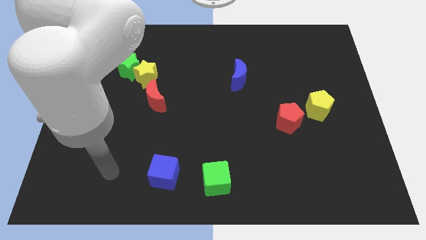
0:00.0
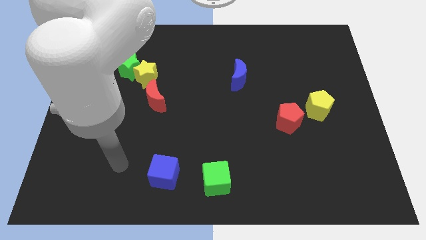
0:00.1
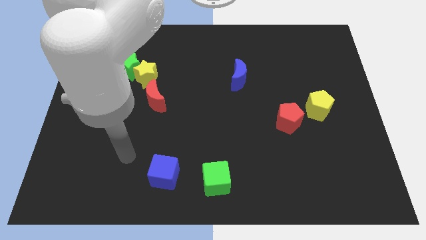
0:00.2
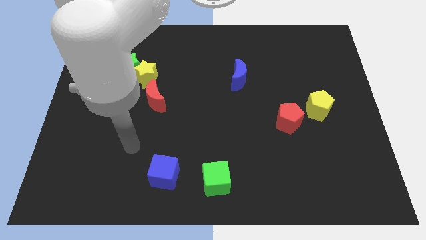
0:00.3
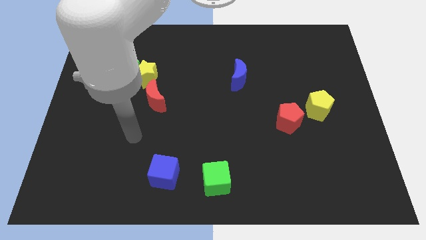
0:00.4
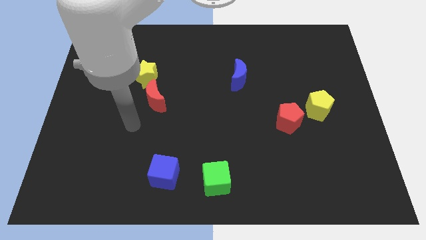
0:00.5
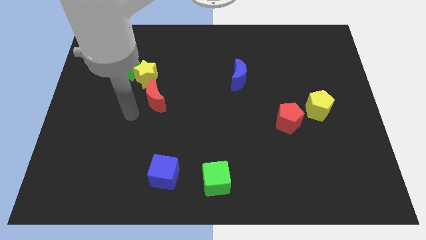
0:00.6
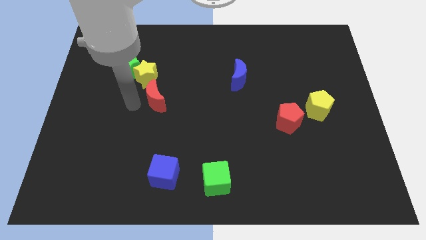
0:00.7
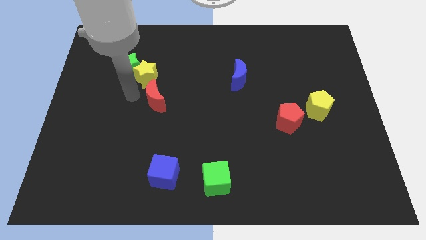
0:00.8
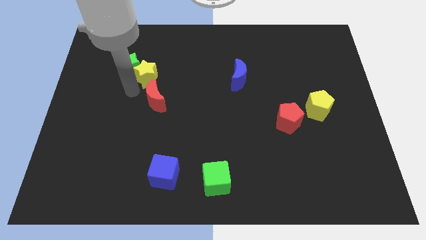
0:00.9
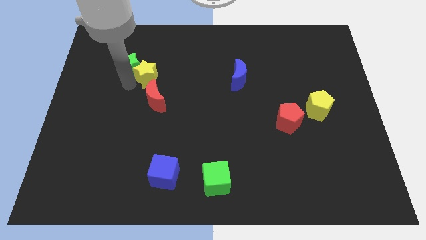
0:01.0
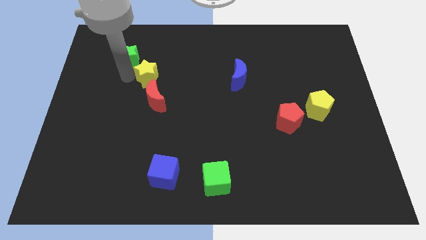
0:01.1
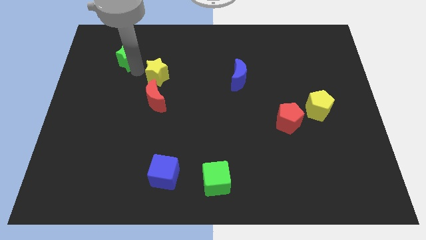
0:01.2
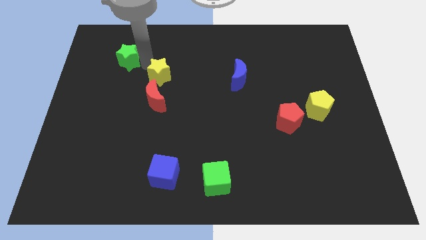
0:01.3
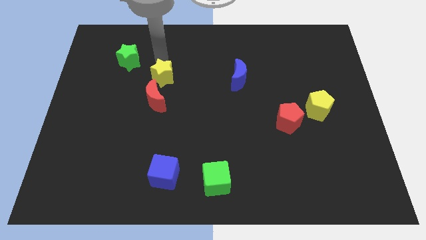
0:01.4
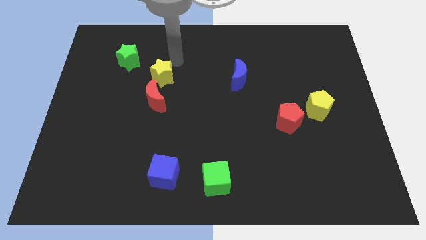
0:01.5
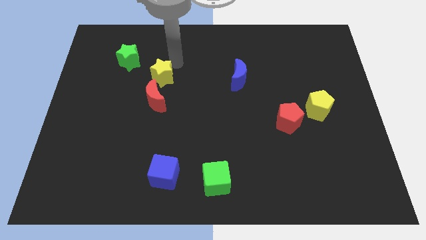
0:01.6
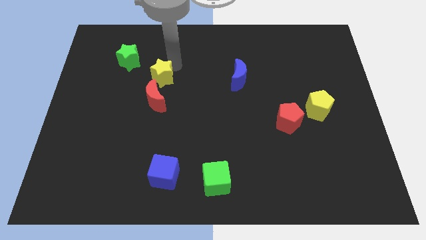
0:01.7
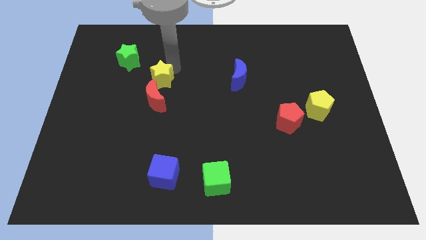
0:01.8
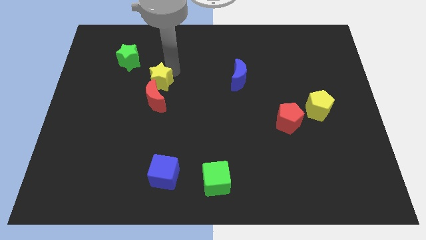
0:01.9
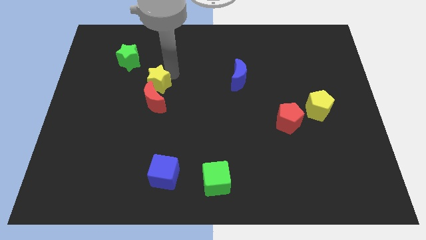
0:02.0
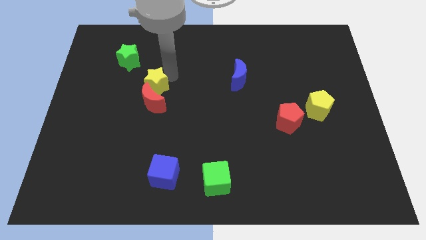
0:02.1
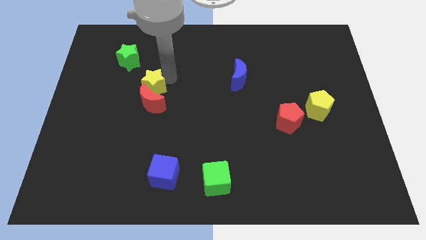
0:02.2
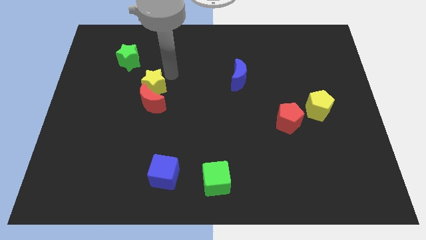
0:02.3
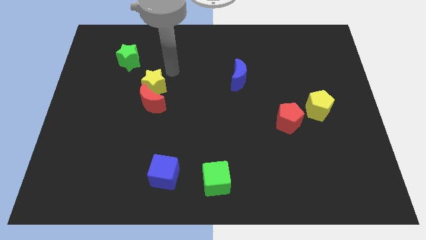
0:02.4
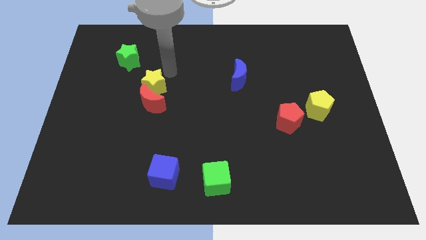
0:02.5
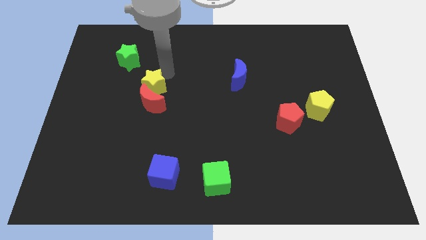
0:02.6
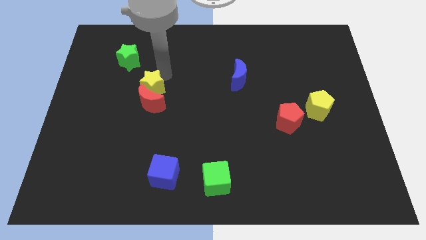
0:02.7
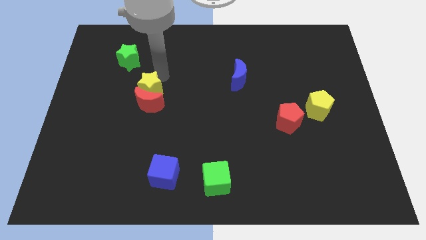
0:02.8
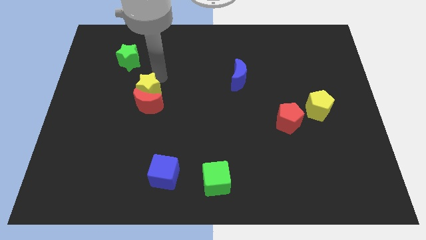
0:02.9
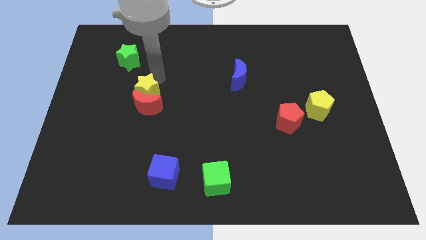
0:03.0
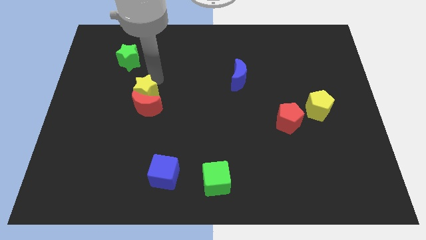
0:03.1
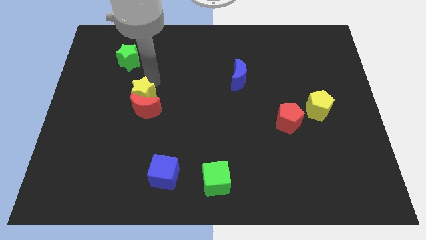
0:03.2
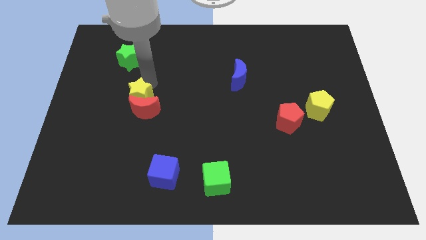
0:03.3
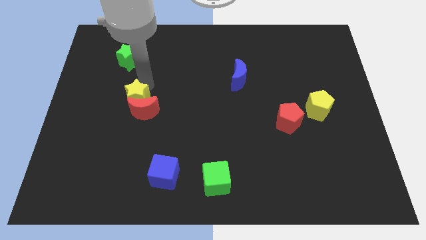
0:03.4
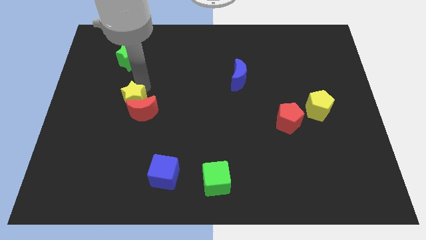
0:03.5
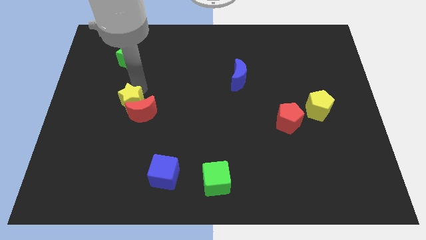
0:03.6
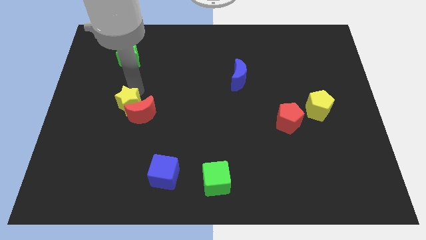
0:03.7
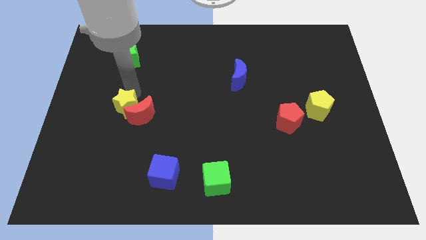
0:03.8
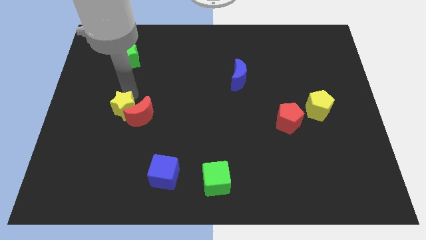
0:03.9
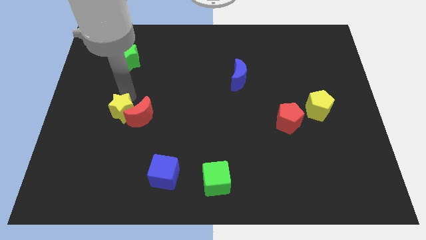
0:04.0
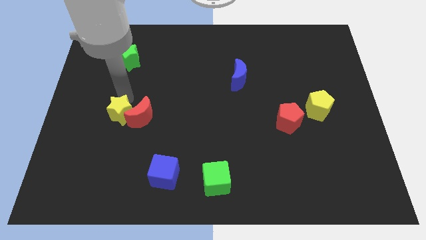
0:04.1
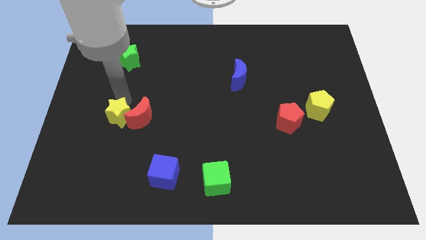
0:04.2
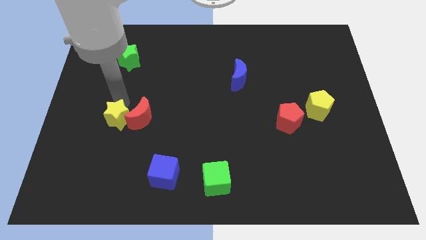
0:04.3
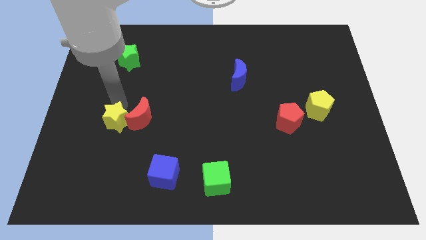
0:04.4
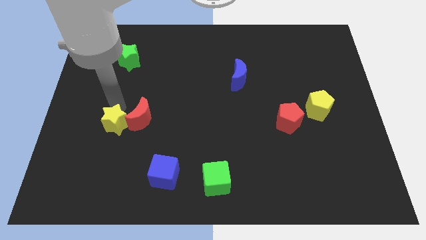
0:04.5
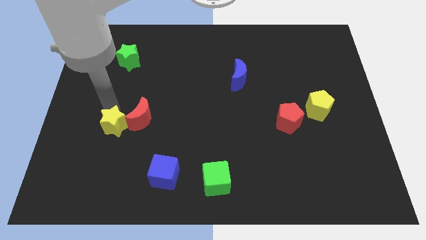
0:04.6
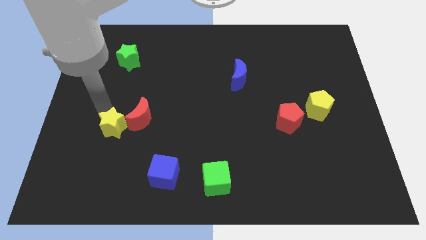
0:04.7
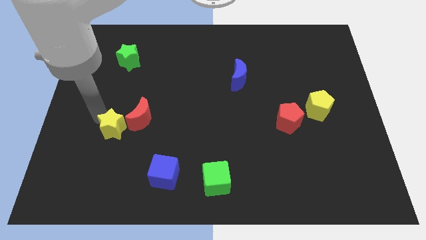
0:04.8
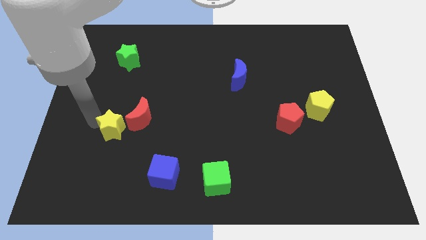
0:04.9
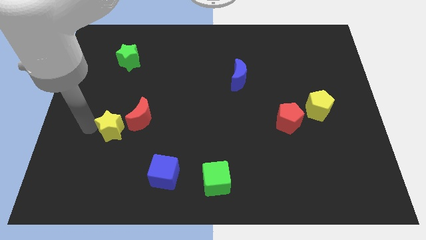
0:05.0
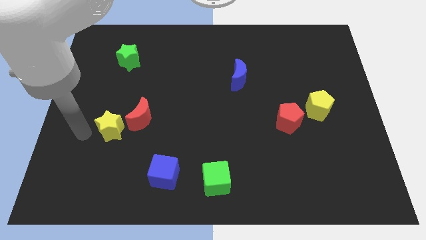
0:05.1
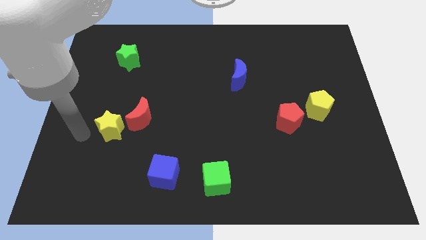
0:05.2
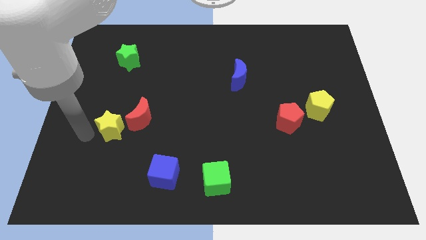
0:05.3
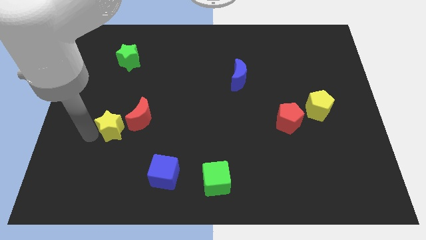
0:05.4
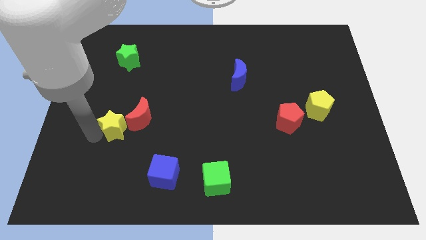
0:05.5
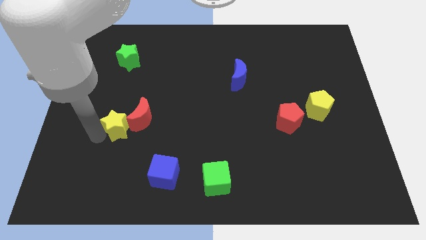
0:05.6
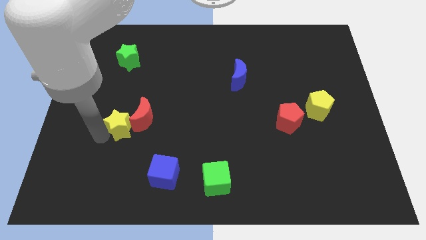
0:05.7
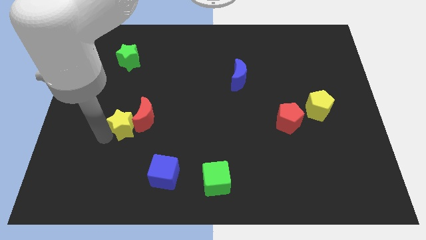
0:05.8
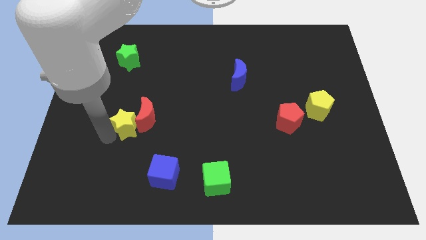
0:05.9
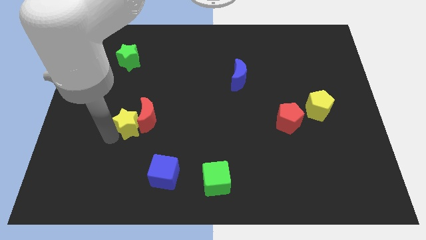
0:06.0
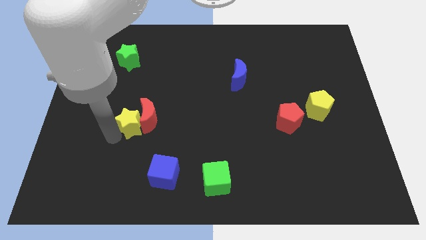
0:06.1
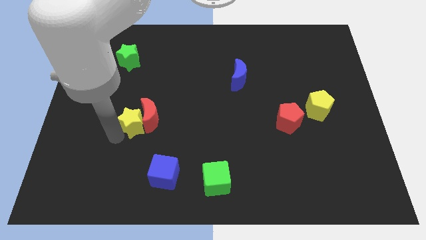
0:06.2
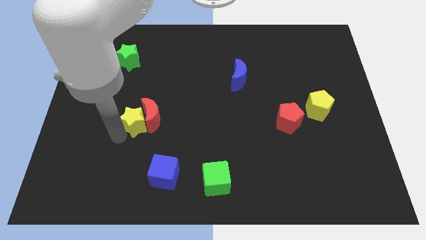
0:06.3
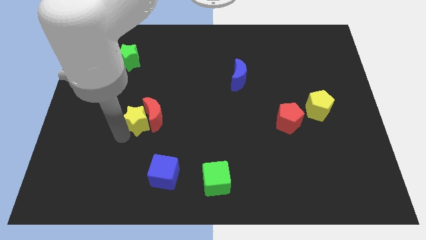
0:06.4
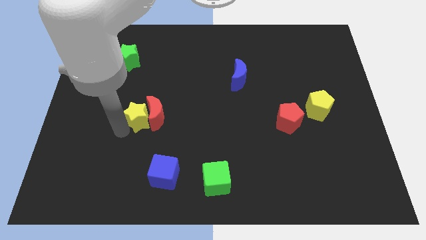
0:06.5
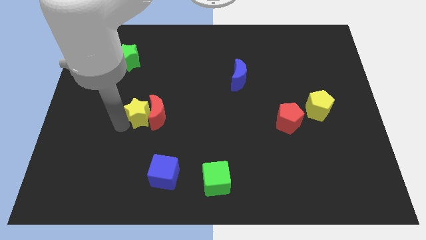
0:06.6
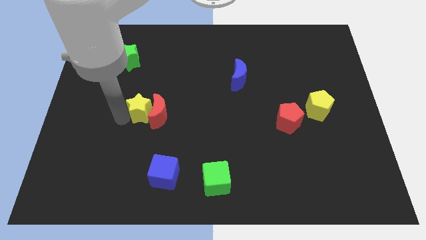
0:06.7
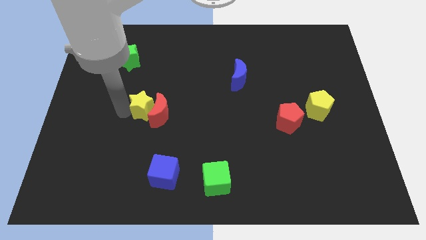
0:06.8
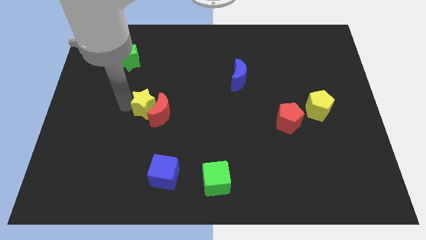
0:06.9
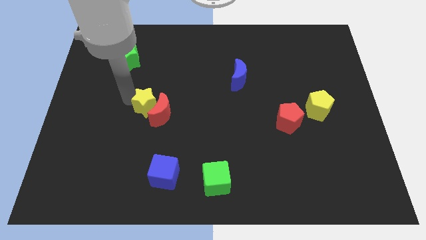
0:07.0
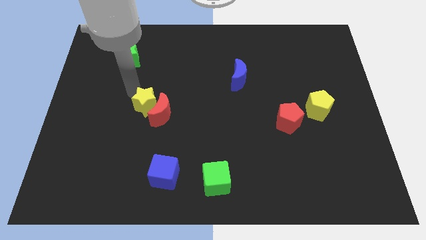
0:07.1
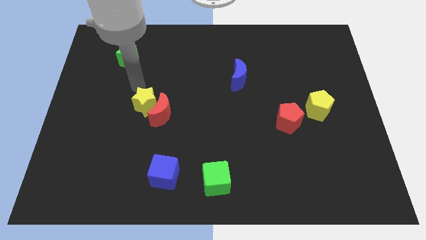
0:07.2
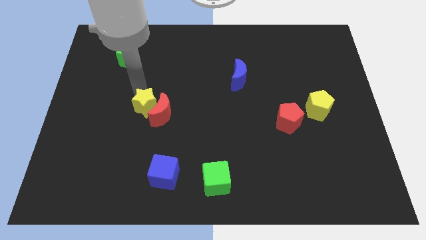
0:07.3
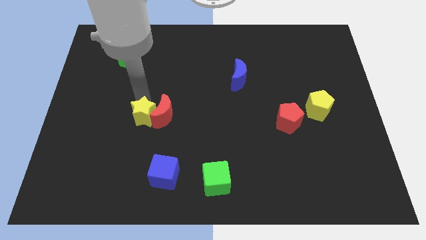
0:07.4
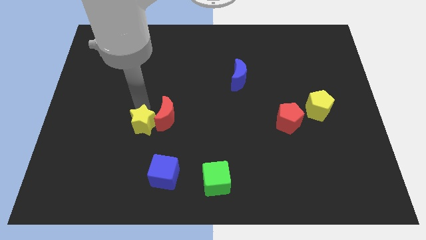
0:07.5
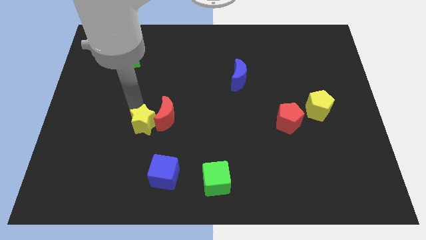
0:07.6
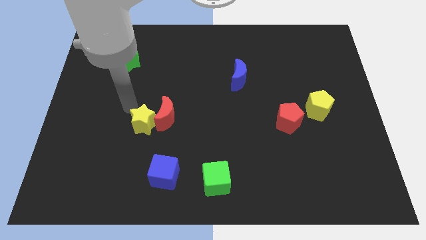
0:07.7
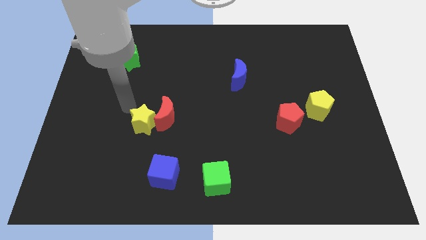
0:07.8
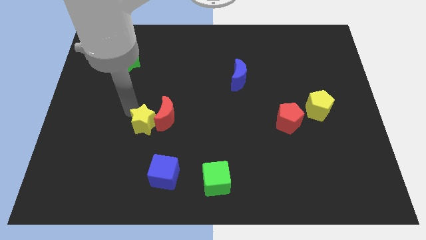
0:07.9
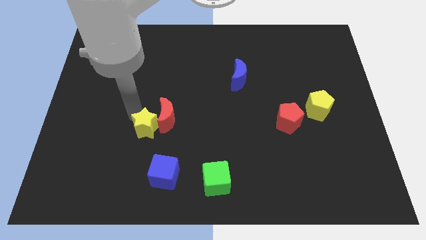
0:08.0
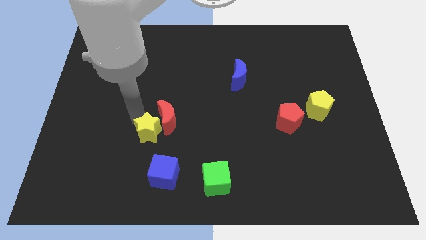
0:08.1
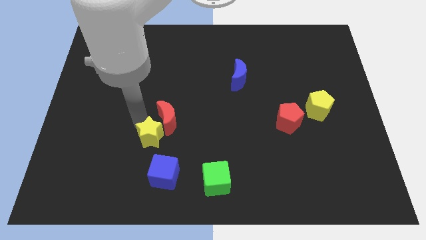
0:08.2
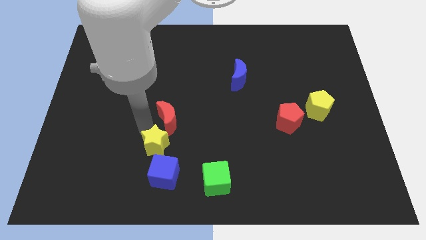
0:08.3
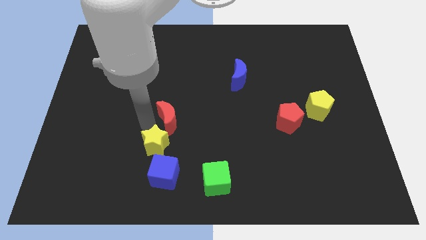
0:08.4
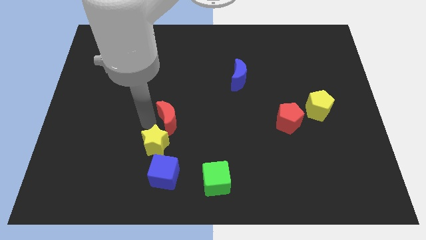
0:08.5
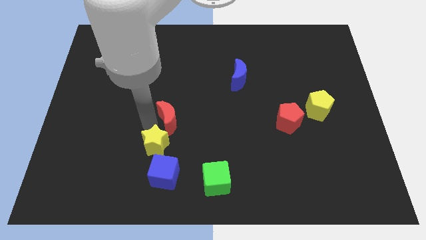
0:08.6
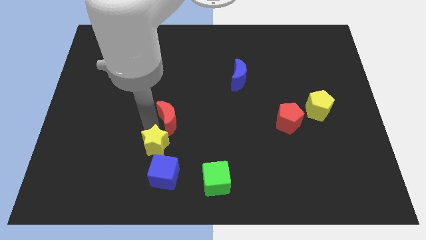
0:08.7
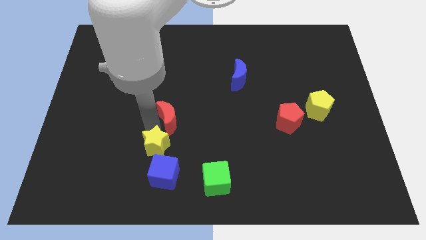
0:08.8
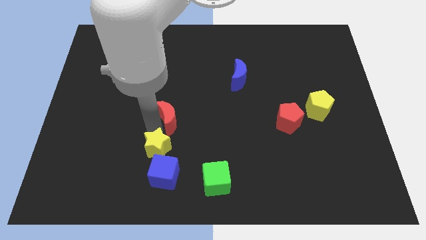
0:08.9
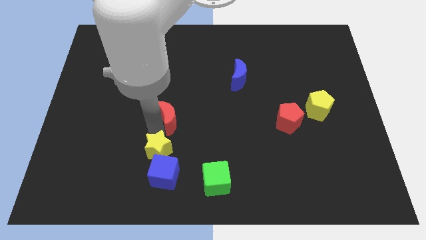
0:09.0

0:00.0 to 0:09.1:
put the yellow star towards the blue cube
